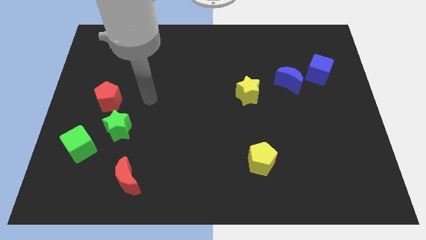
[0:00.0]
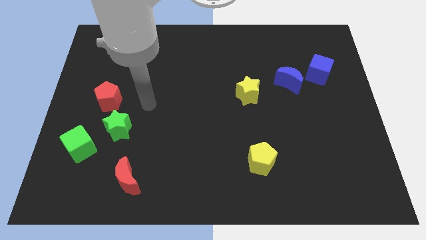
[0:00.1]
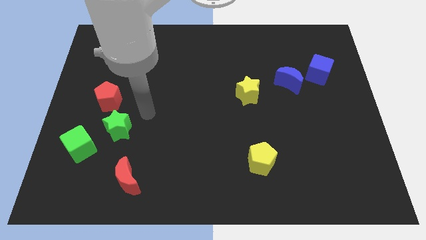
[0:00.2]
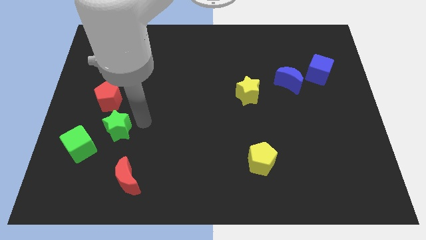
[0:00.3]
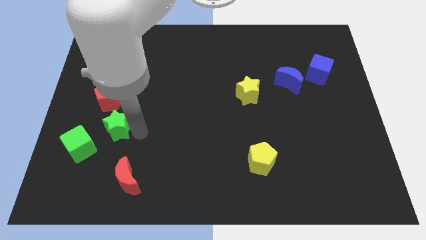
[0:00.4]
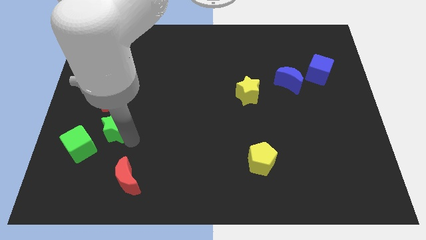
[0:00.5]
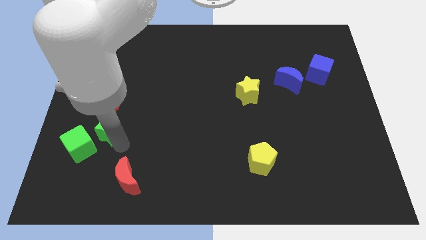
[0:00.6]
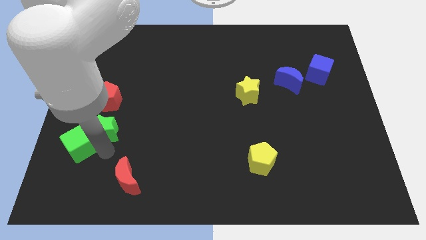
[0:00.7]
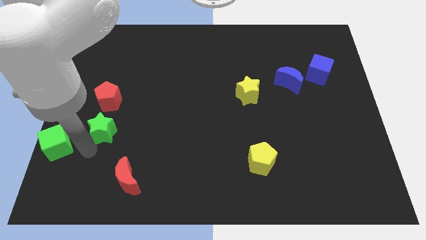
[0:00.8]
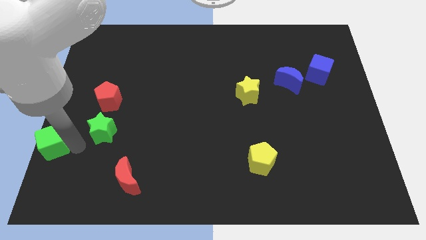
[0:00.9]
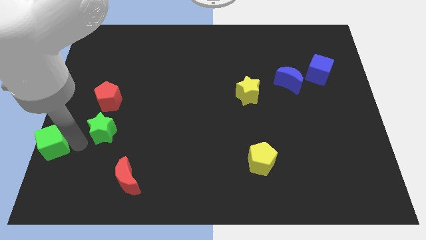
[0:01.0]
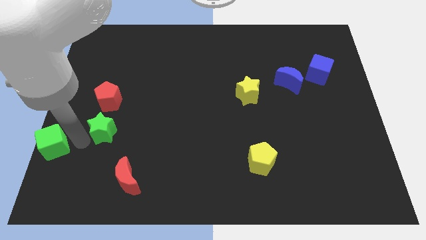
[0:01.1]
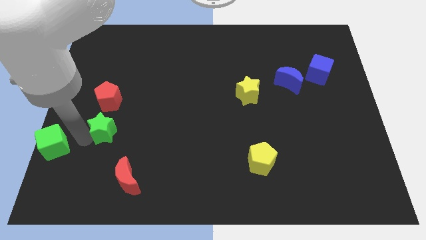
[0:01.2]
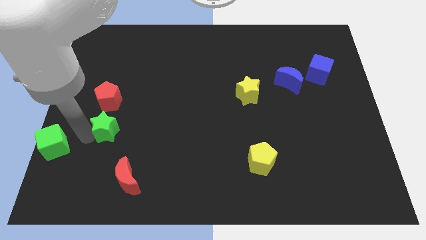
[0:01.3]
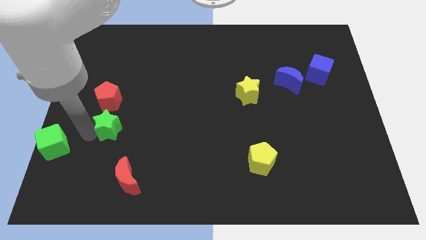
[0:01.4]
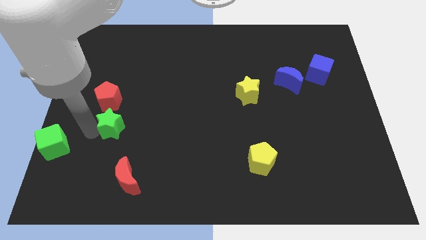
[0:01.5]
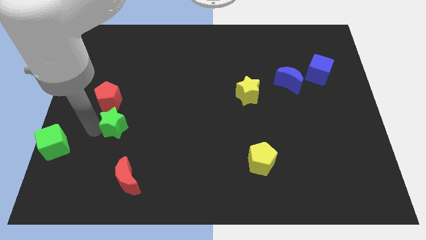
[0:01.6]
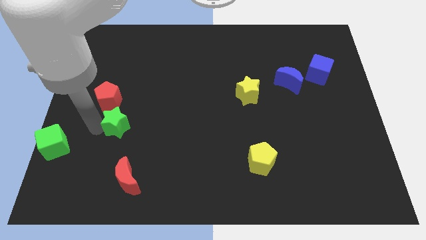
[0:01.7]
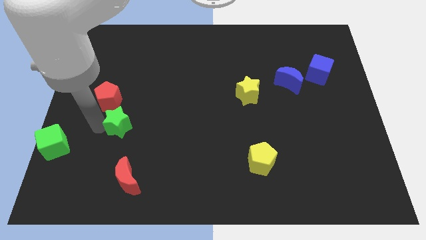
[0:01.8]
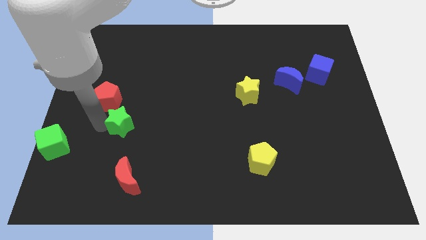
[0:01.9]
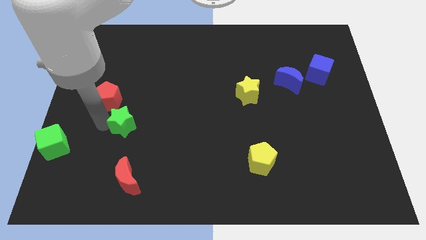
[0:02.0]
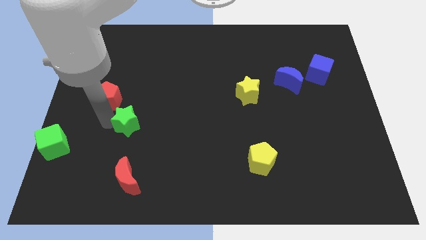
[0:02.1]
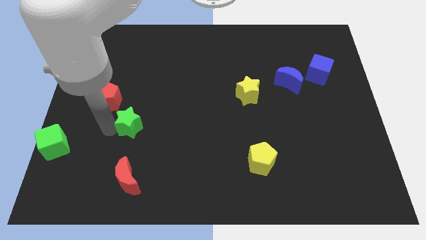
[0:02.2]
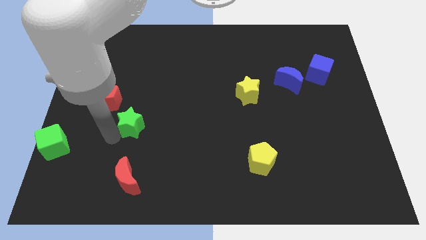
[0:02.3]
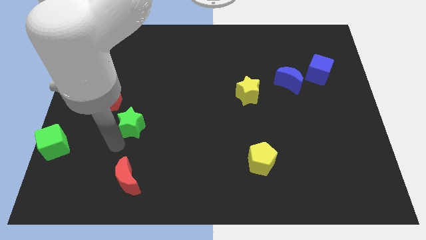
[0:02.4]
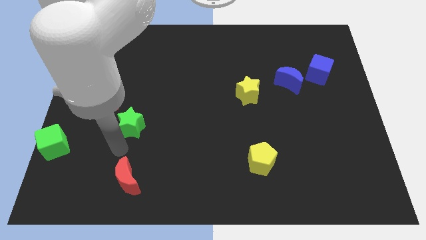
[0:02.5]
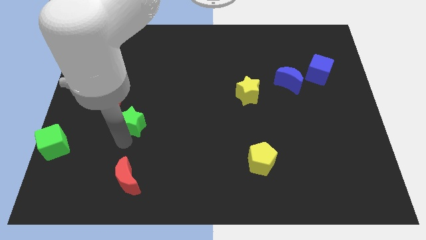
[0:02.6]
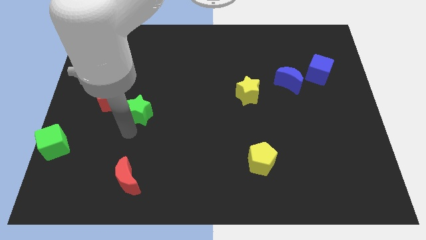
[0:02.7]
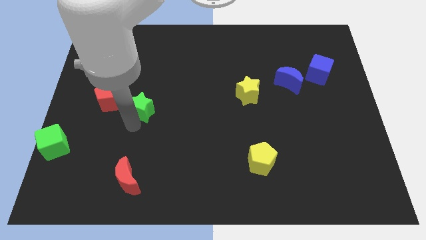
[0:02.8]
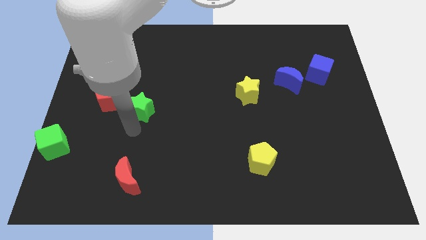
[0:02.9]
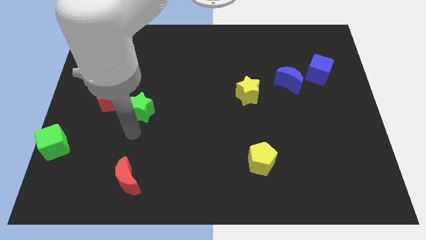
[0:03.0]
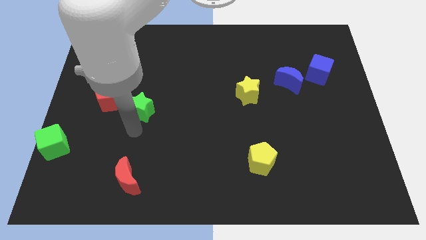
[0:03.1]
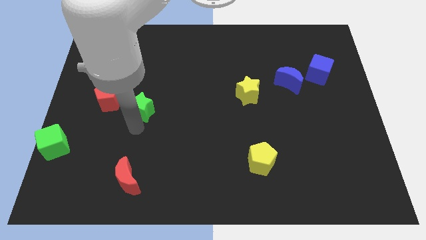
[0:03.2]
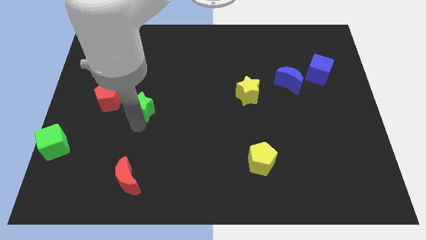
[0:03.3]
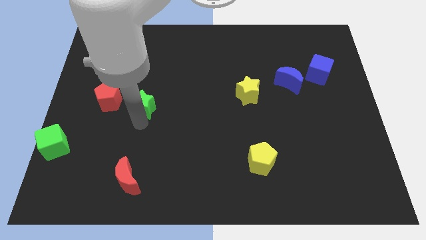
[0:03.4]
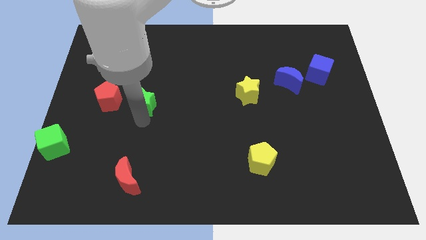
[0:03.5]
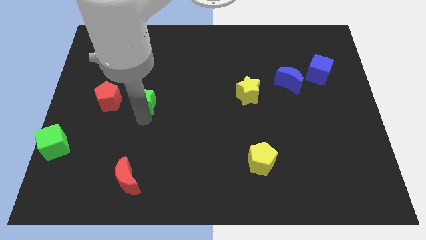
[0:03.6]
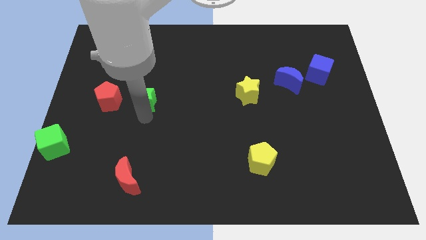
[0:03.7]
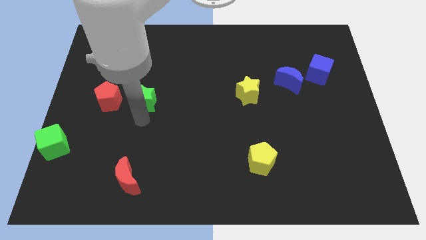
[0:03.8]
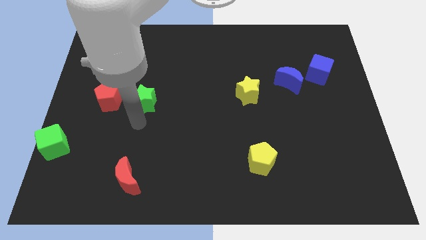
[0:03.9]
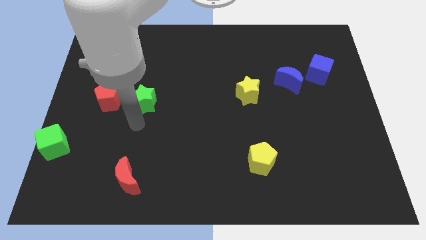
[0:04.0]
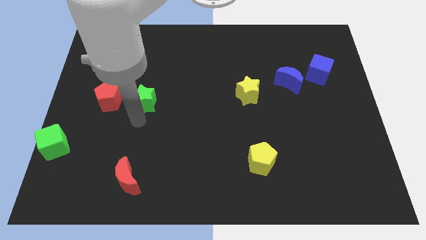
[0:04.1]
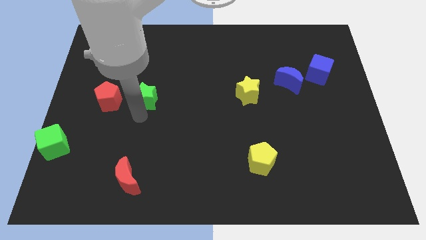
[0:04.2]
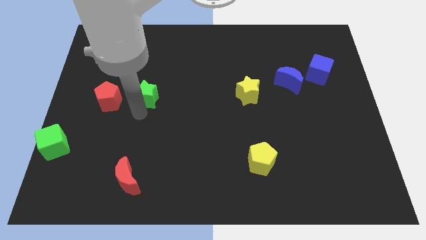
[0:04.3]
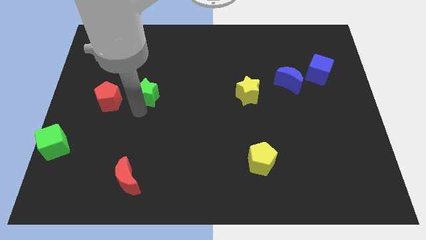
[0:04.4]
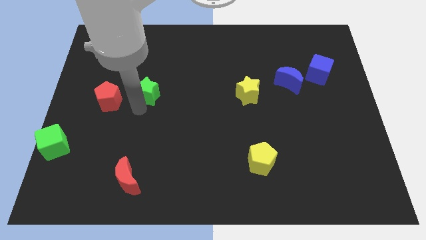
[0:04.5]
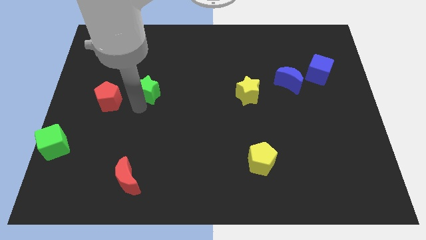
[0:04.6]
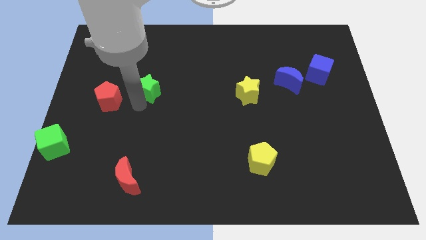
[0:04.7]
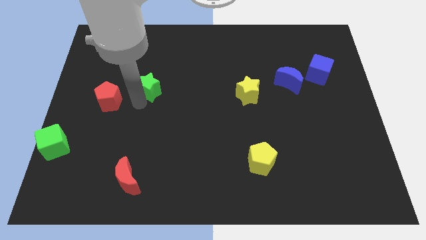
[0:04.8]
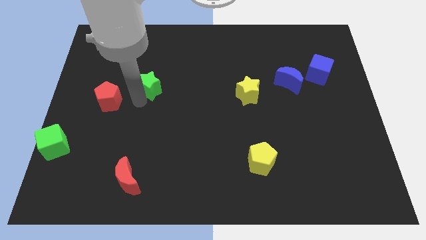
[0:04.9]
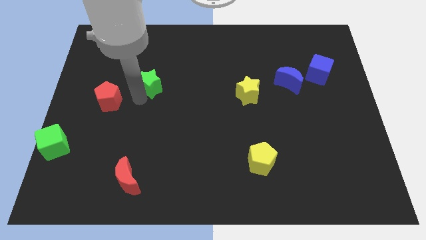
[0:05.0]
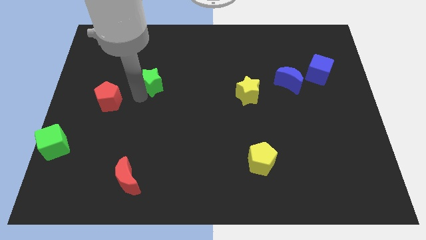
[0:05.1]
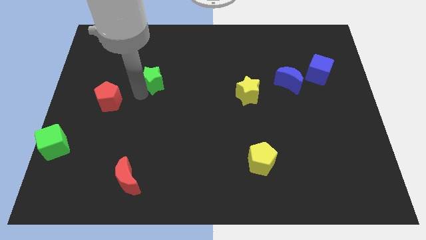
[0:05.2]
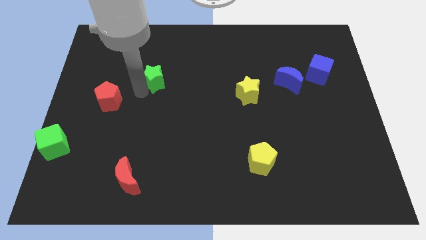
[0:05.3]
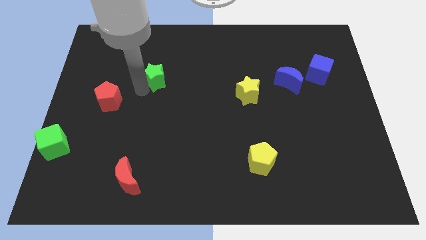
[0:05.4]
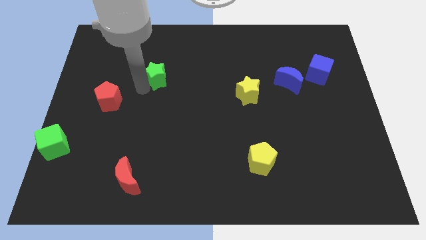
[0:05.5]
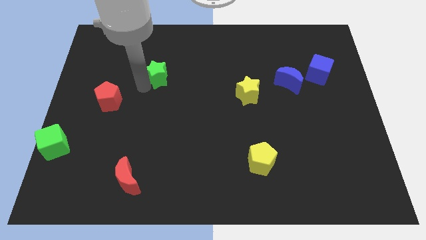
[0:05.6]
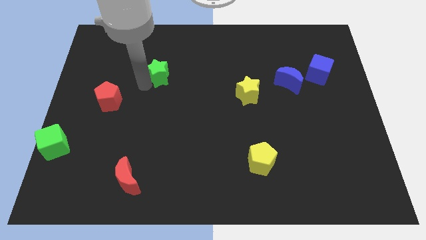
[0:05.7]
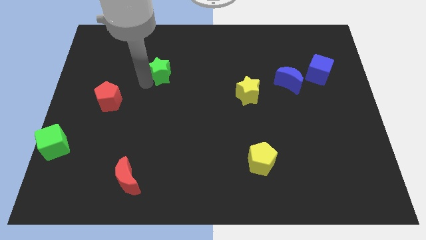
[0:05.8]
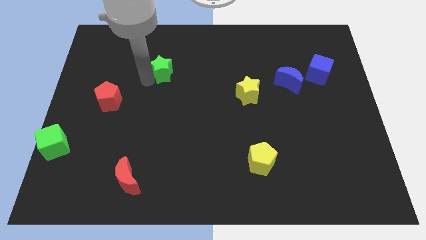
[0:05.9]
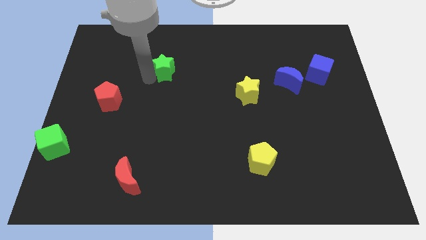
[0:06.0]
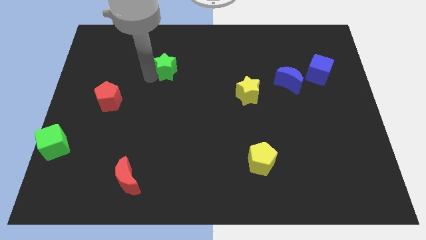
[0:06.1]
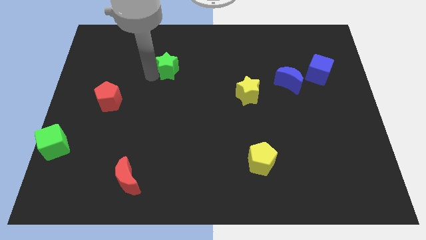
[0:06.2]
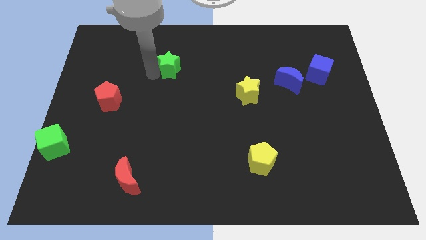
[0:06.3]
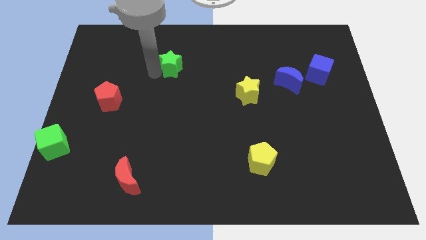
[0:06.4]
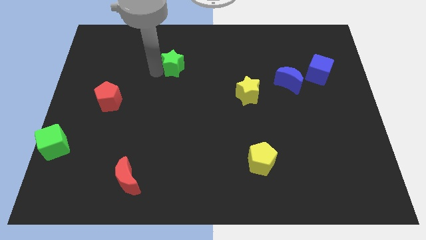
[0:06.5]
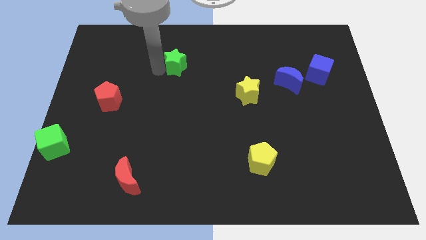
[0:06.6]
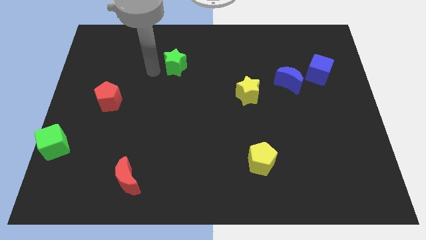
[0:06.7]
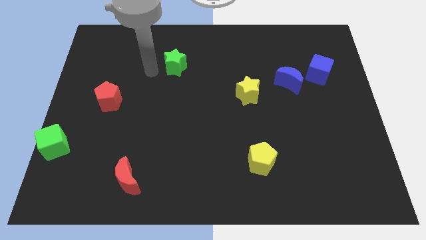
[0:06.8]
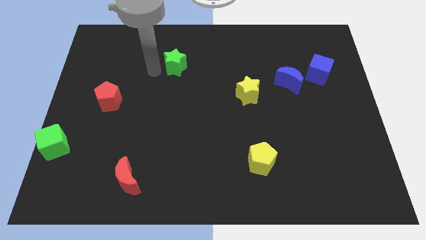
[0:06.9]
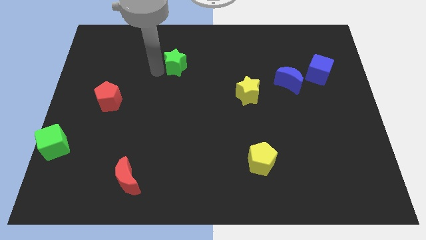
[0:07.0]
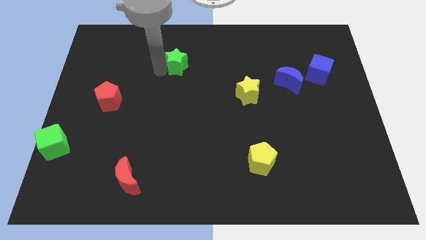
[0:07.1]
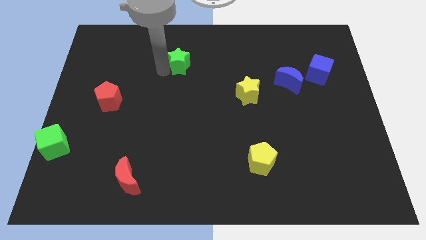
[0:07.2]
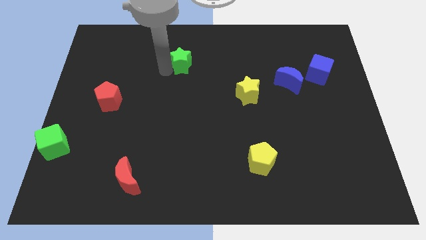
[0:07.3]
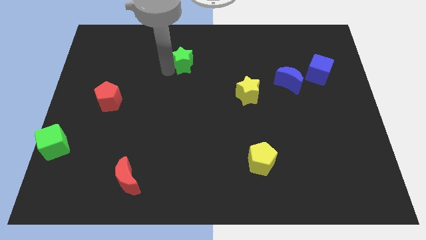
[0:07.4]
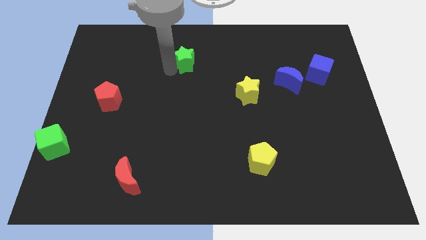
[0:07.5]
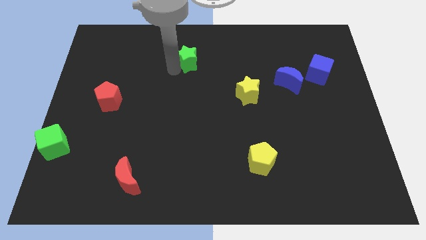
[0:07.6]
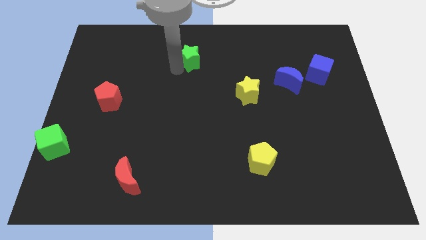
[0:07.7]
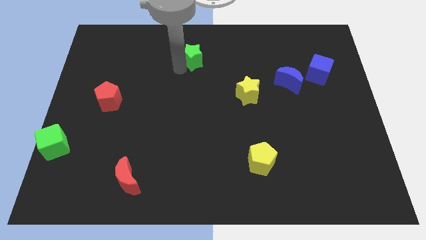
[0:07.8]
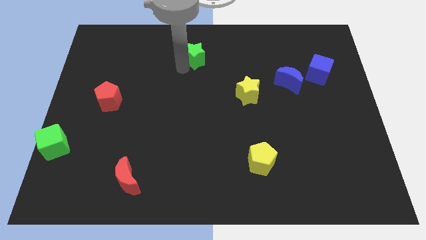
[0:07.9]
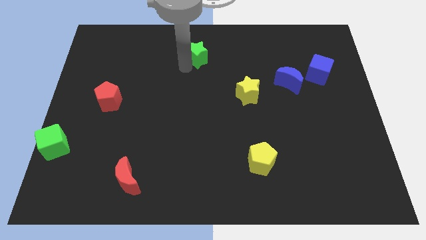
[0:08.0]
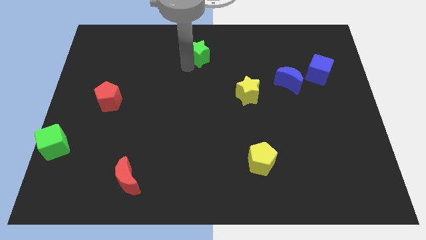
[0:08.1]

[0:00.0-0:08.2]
push the green star to the top
